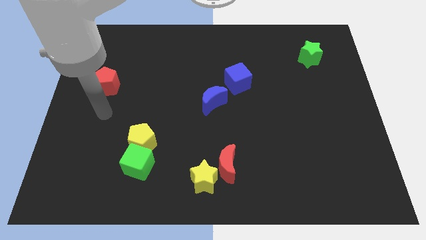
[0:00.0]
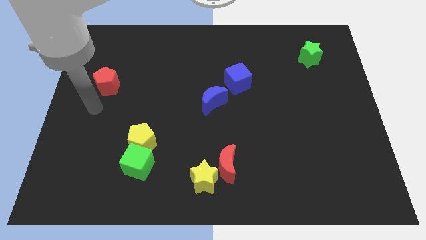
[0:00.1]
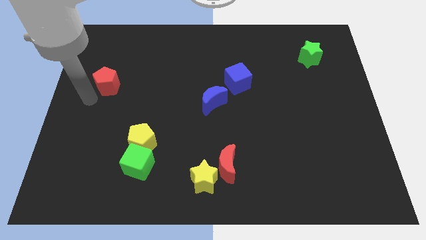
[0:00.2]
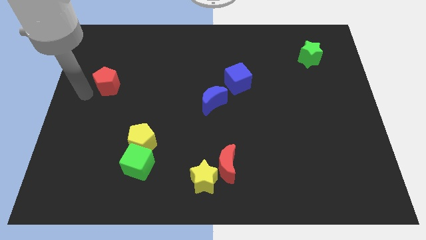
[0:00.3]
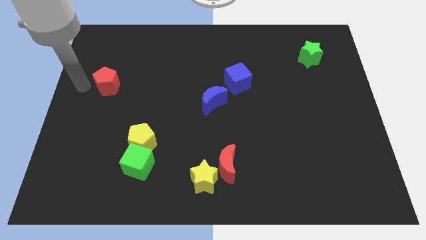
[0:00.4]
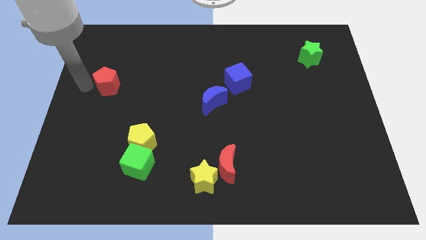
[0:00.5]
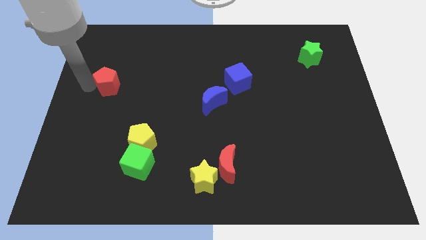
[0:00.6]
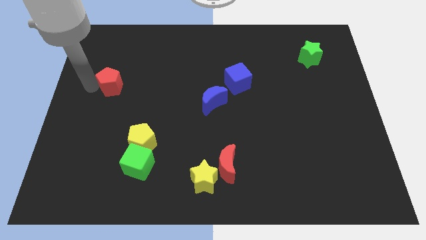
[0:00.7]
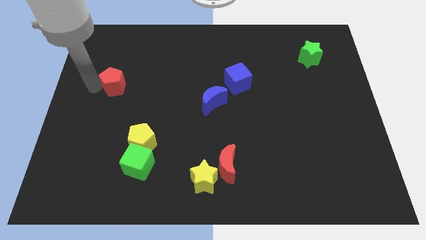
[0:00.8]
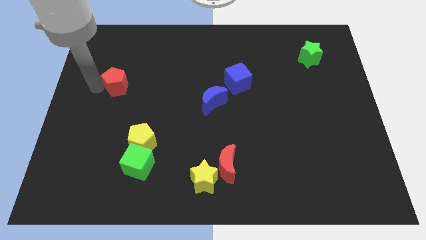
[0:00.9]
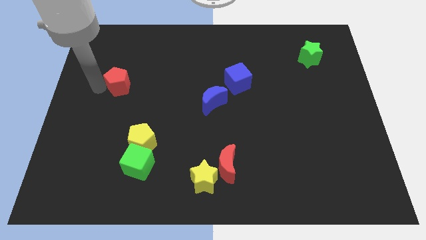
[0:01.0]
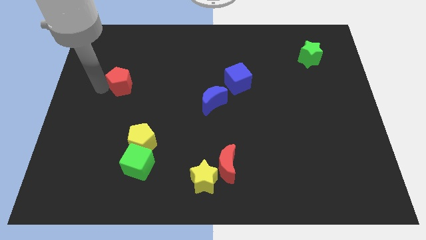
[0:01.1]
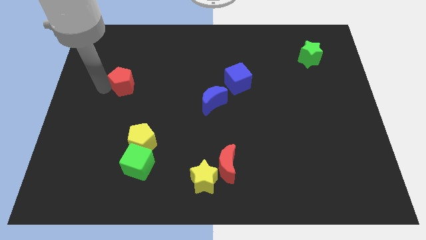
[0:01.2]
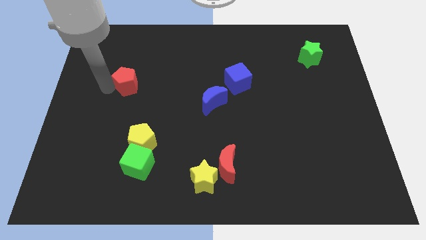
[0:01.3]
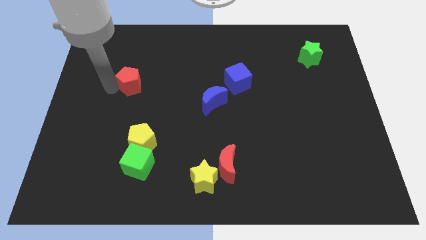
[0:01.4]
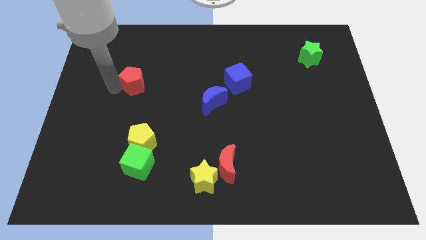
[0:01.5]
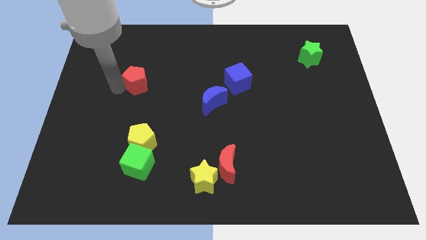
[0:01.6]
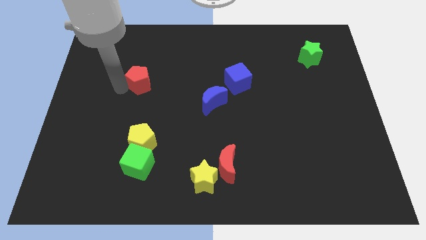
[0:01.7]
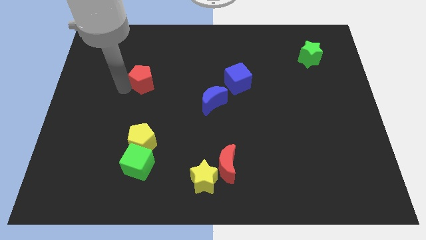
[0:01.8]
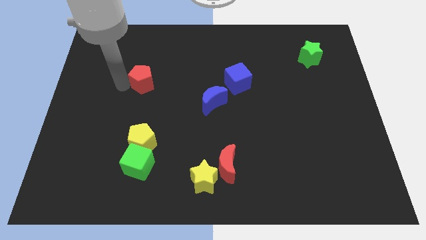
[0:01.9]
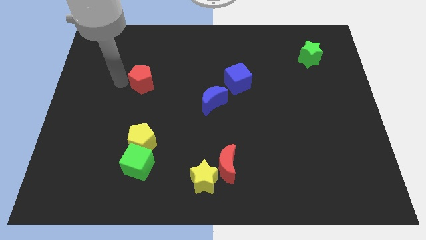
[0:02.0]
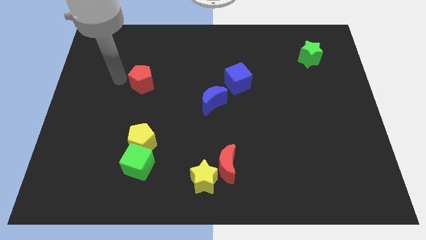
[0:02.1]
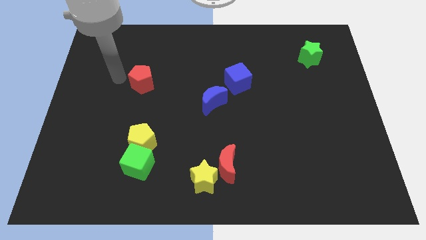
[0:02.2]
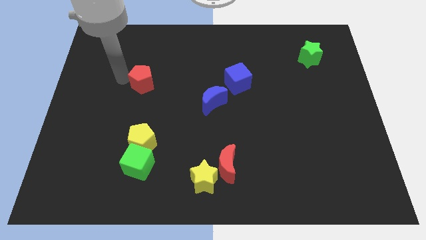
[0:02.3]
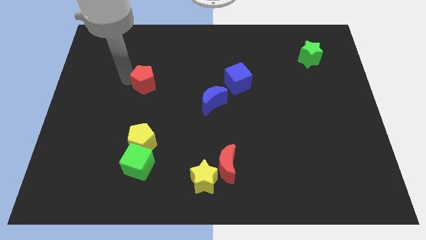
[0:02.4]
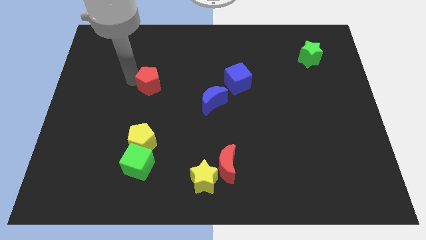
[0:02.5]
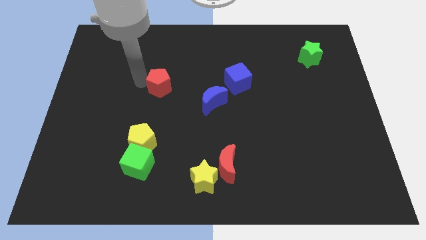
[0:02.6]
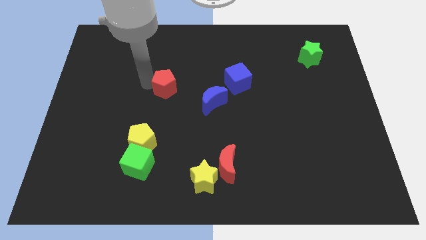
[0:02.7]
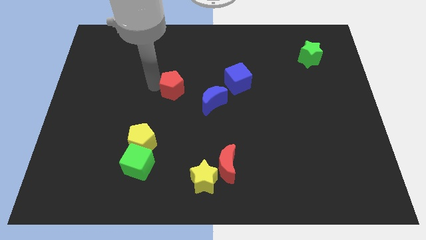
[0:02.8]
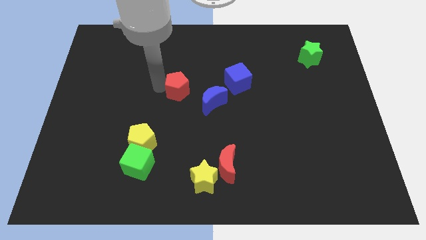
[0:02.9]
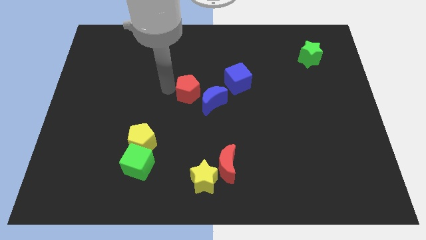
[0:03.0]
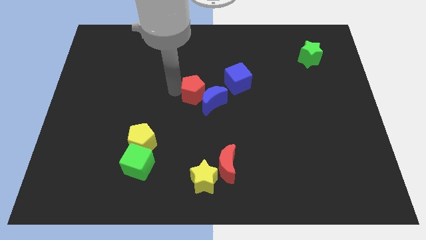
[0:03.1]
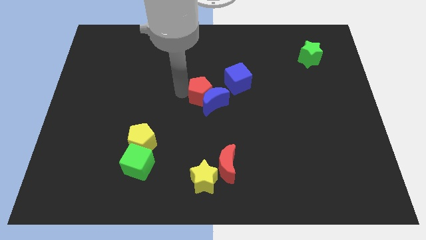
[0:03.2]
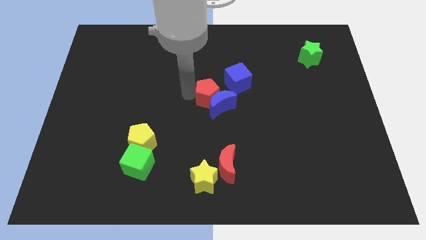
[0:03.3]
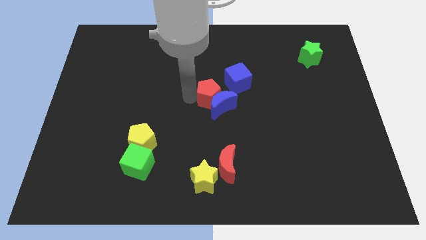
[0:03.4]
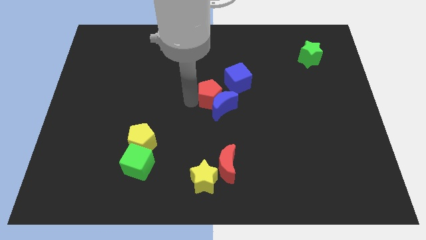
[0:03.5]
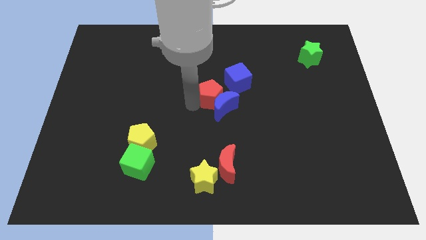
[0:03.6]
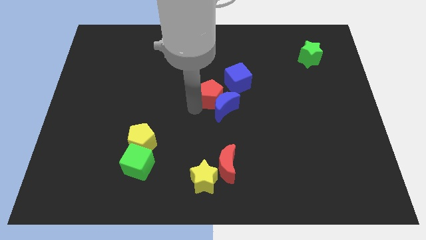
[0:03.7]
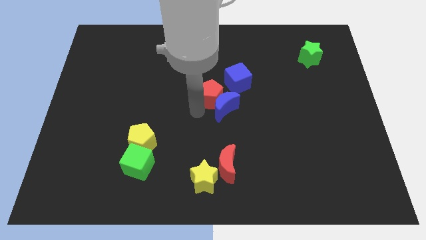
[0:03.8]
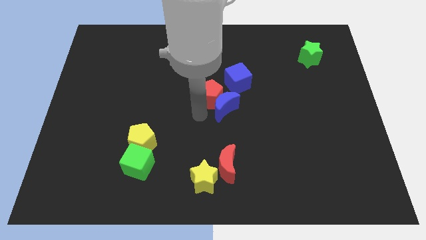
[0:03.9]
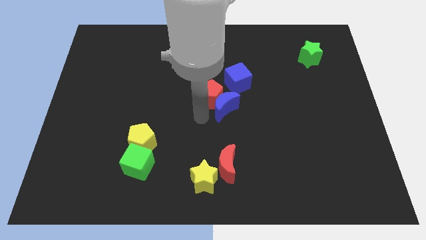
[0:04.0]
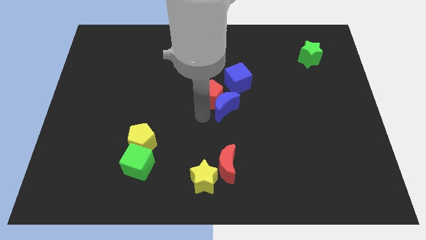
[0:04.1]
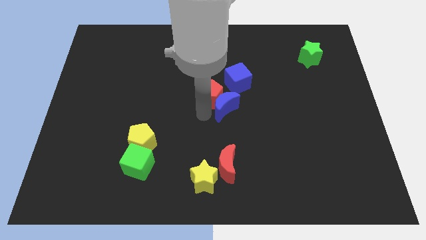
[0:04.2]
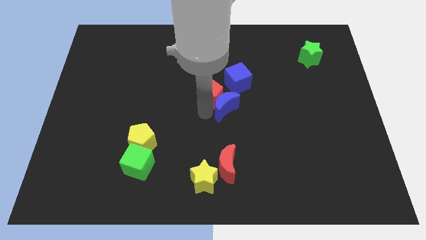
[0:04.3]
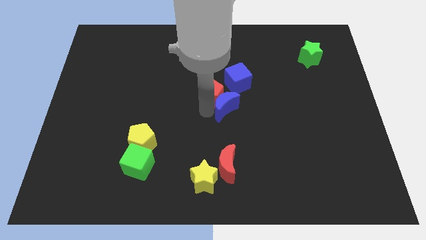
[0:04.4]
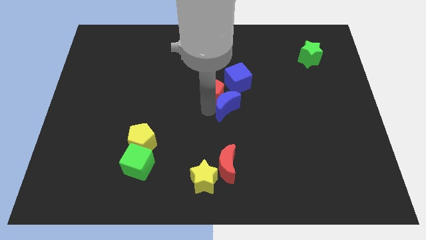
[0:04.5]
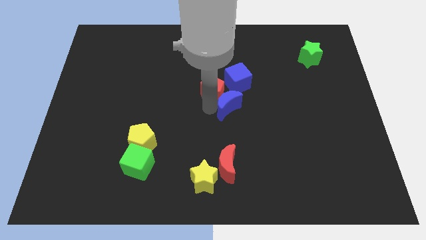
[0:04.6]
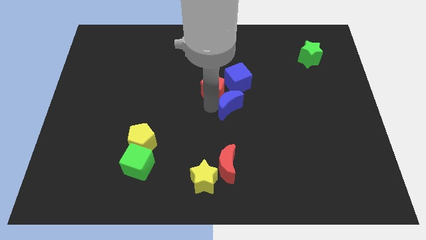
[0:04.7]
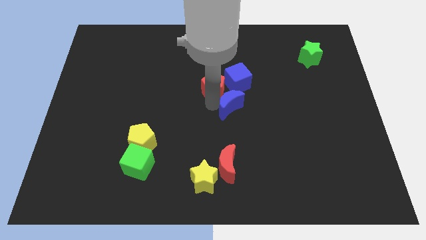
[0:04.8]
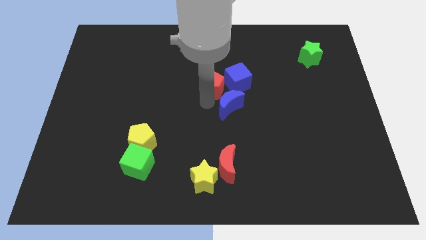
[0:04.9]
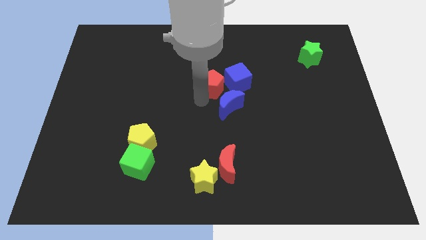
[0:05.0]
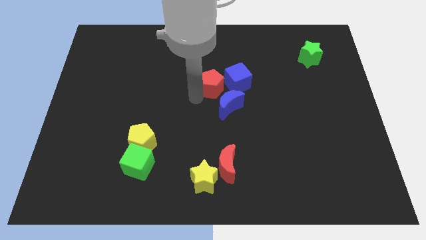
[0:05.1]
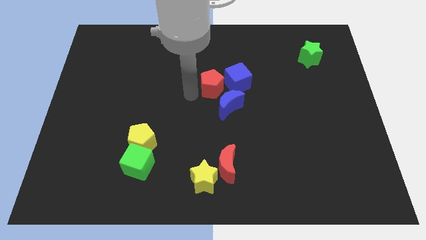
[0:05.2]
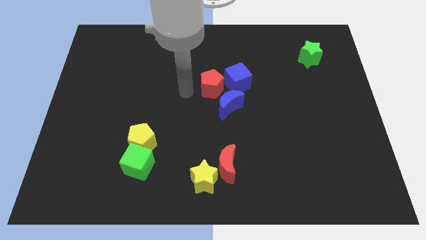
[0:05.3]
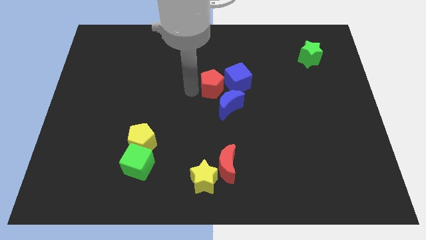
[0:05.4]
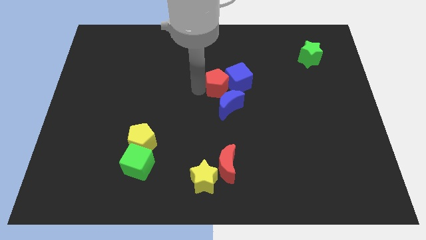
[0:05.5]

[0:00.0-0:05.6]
put the red pentagon towards the blue cube

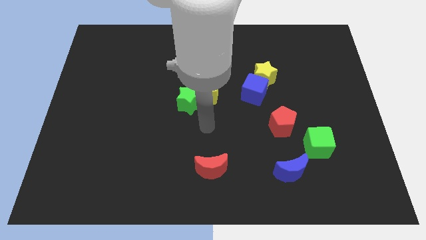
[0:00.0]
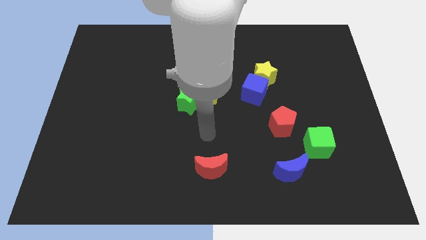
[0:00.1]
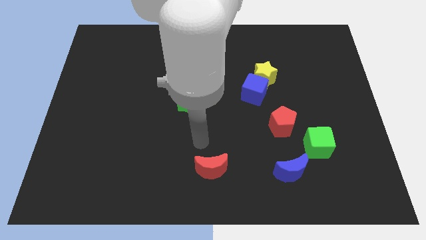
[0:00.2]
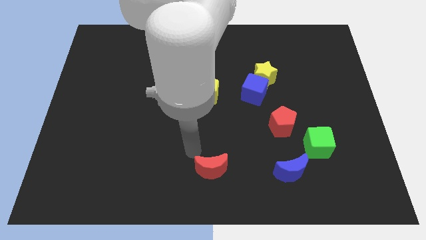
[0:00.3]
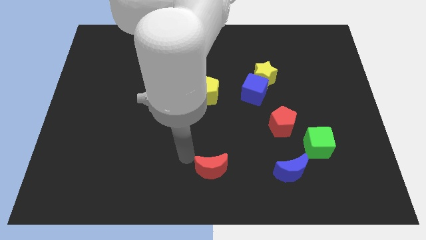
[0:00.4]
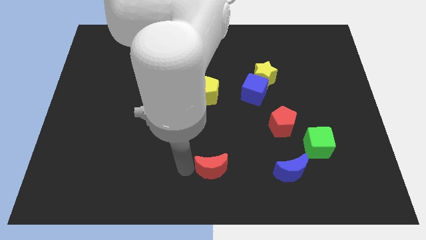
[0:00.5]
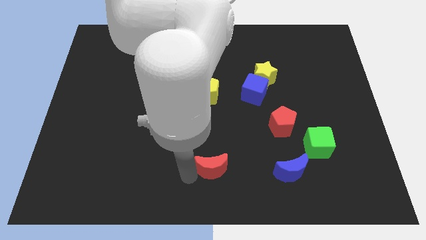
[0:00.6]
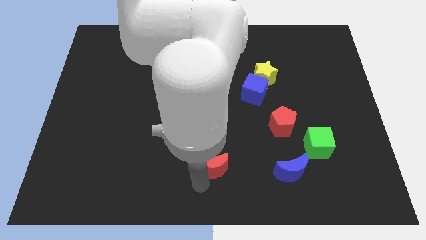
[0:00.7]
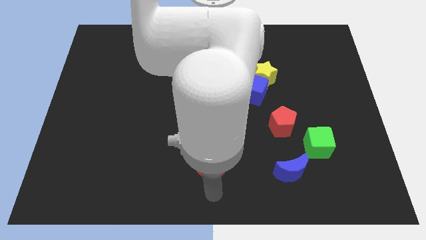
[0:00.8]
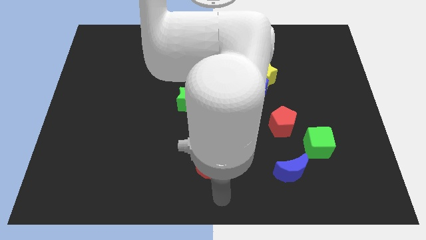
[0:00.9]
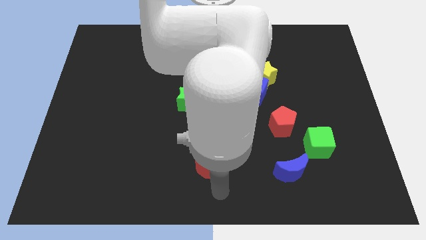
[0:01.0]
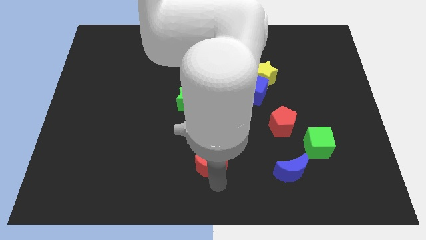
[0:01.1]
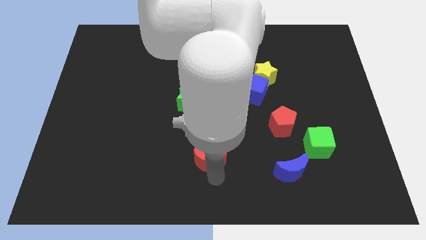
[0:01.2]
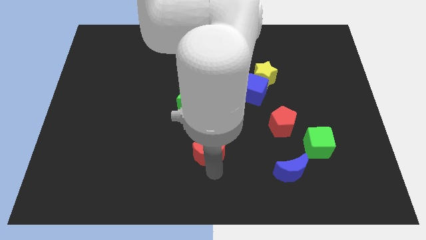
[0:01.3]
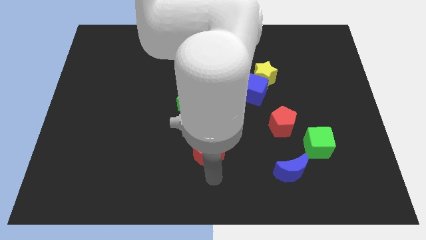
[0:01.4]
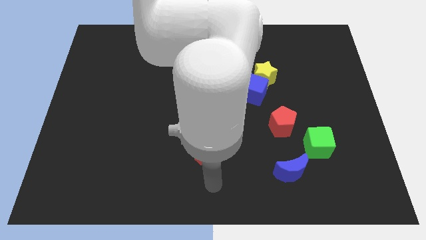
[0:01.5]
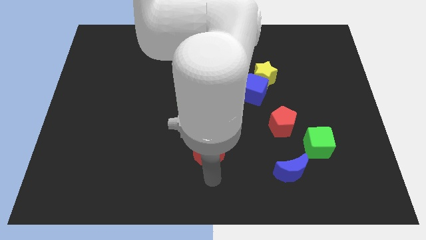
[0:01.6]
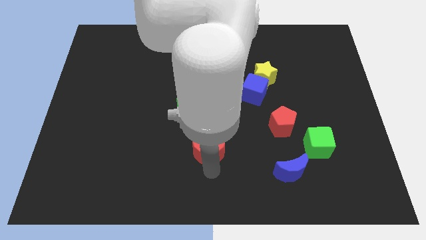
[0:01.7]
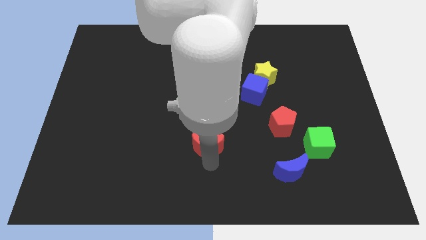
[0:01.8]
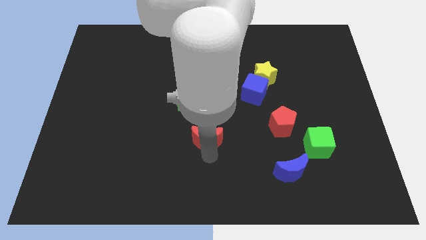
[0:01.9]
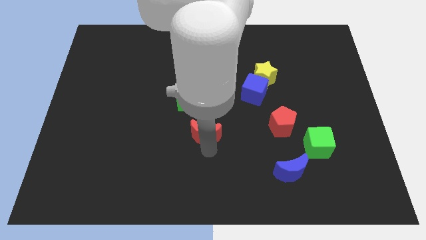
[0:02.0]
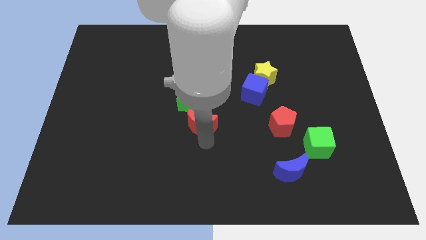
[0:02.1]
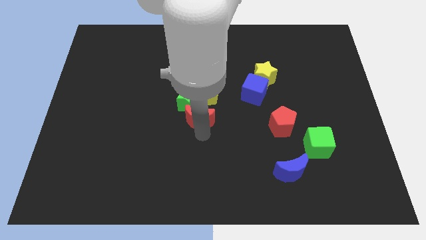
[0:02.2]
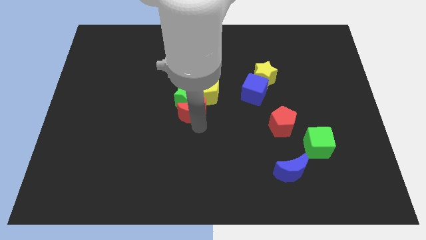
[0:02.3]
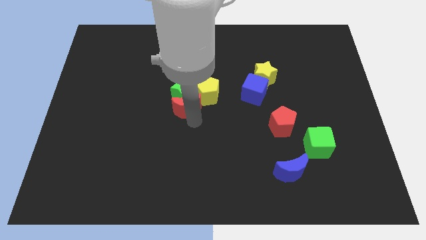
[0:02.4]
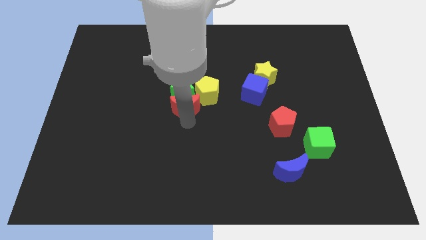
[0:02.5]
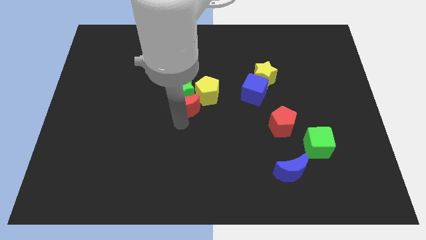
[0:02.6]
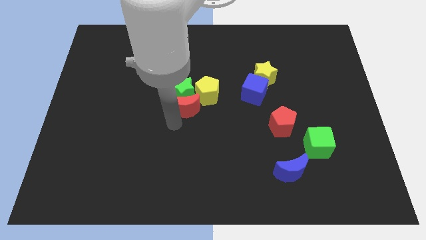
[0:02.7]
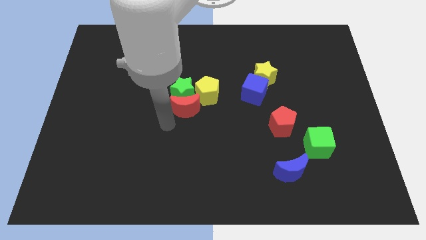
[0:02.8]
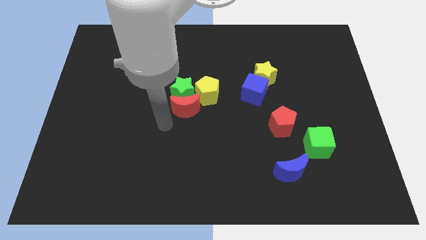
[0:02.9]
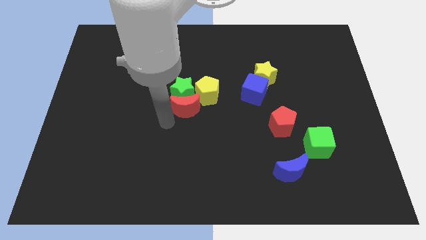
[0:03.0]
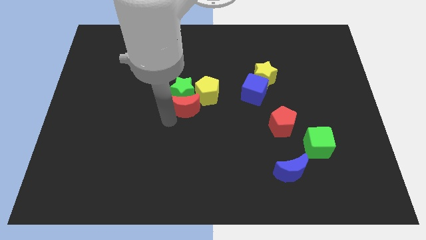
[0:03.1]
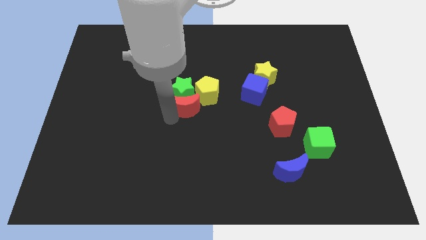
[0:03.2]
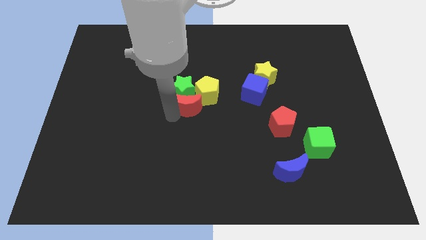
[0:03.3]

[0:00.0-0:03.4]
push the red moon next to the yellow pentagon
